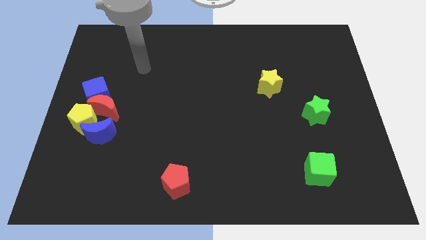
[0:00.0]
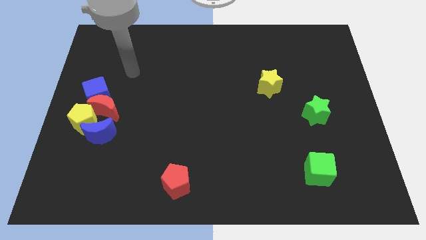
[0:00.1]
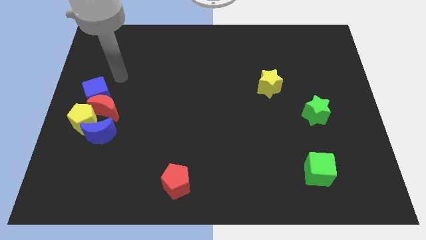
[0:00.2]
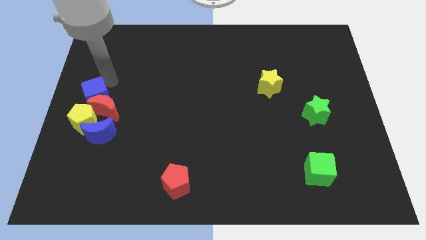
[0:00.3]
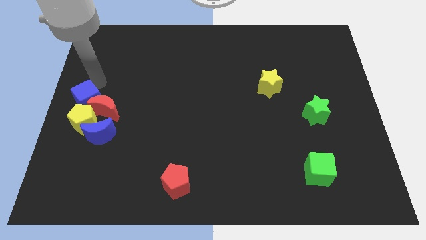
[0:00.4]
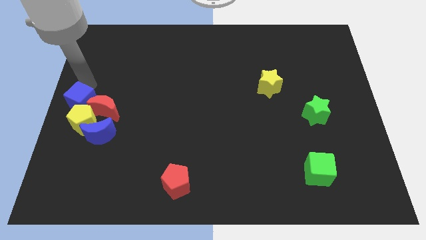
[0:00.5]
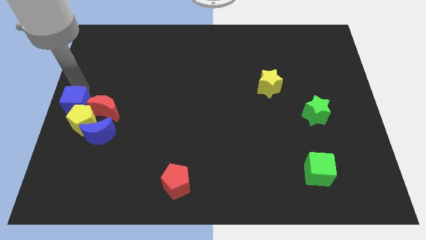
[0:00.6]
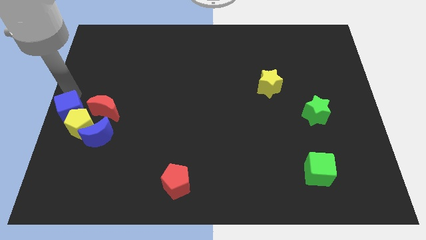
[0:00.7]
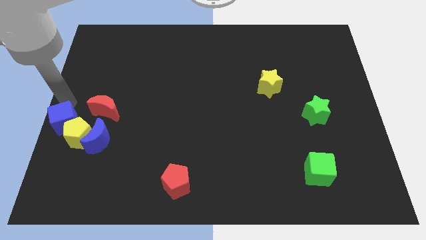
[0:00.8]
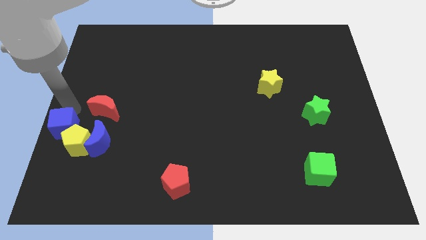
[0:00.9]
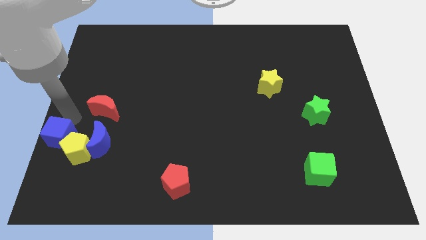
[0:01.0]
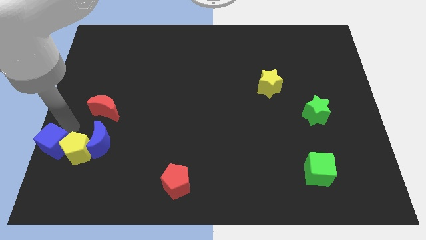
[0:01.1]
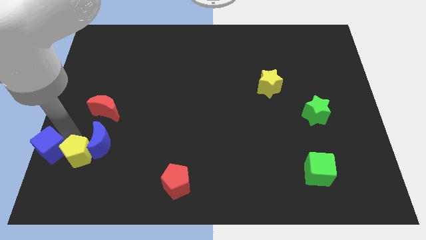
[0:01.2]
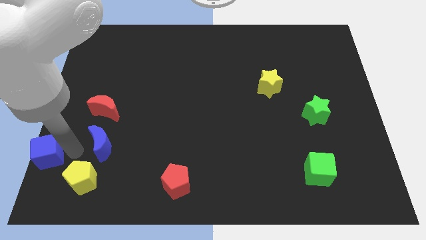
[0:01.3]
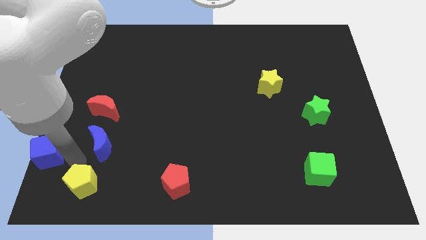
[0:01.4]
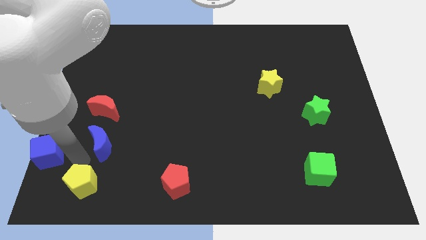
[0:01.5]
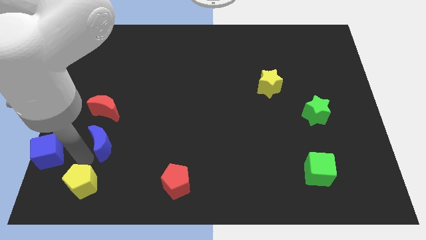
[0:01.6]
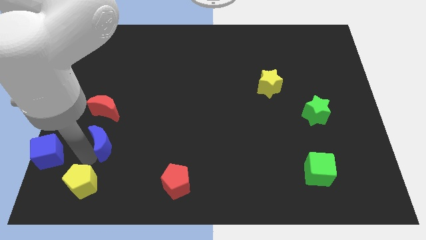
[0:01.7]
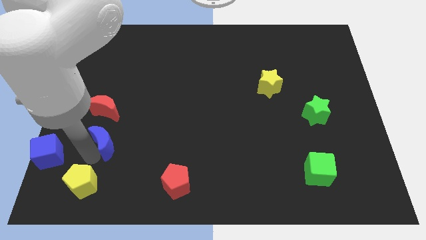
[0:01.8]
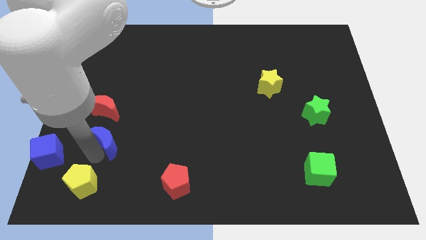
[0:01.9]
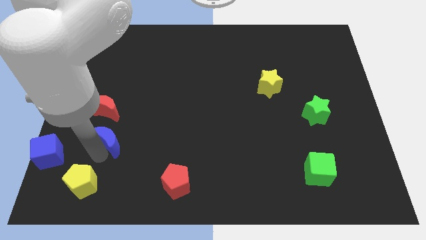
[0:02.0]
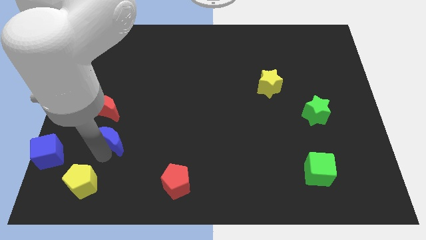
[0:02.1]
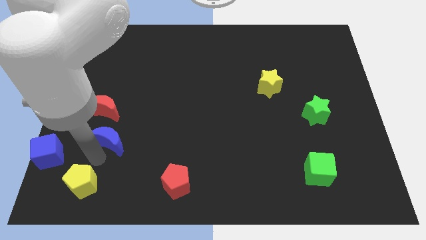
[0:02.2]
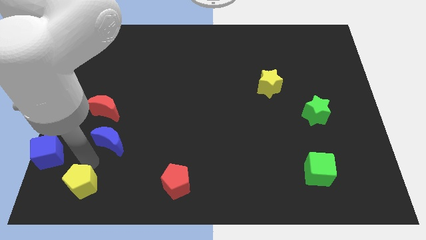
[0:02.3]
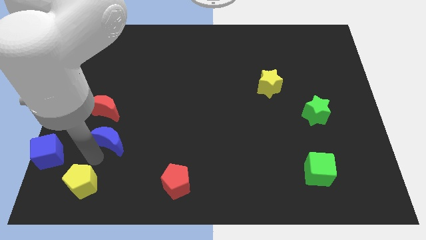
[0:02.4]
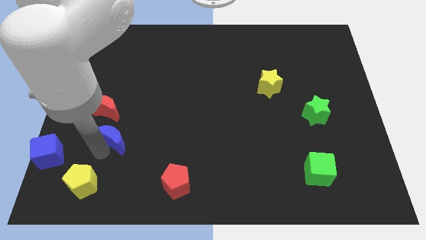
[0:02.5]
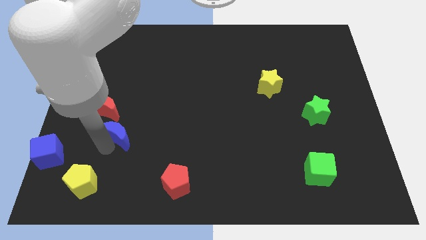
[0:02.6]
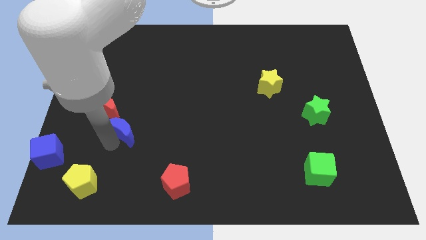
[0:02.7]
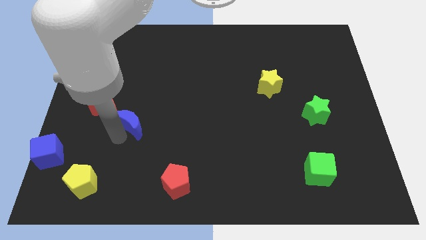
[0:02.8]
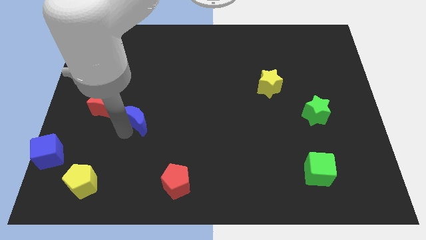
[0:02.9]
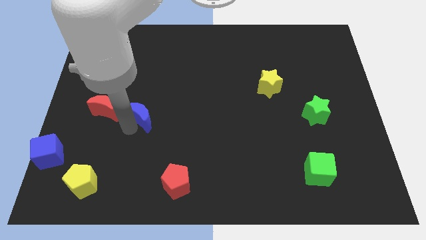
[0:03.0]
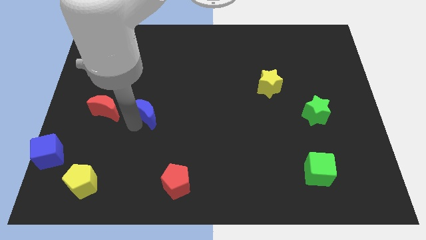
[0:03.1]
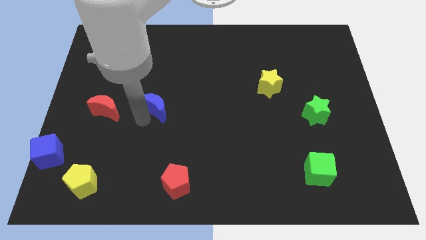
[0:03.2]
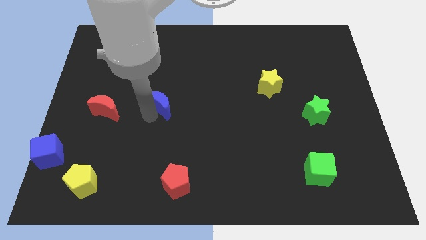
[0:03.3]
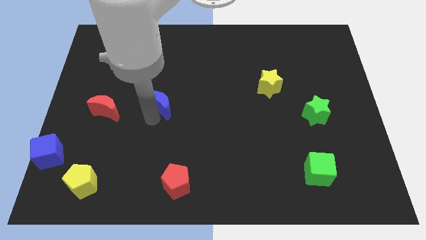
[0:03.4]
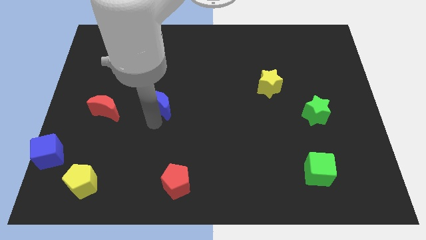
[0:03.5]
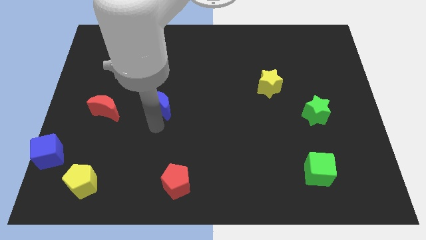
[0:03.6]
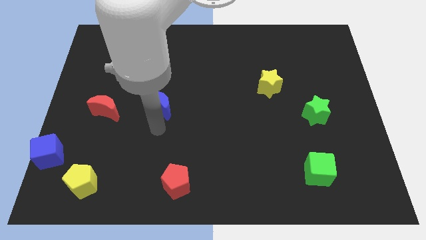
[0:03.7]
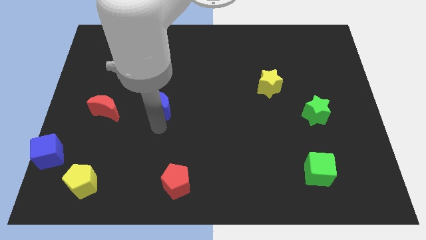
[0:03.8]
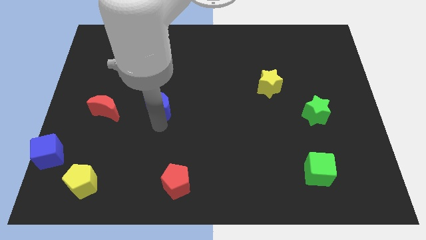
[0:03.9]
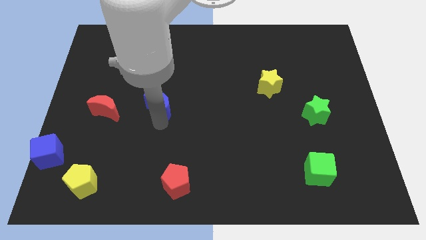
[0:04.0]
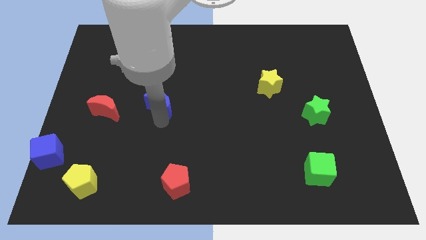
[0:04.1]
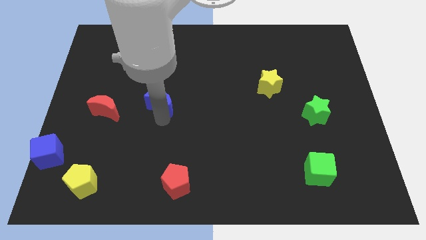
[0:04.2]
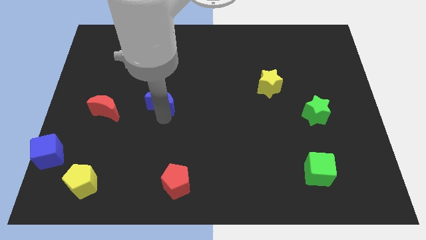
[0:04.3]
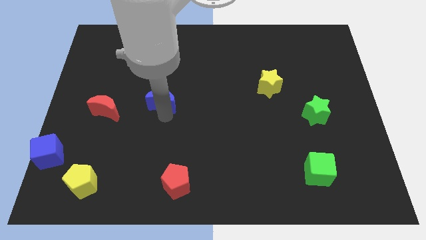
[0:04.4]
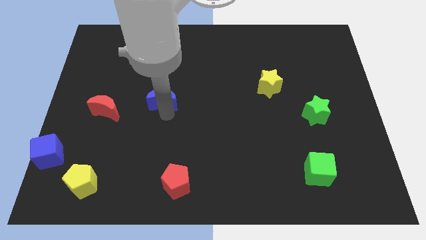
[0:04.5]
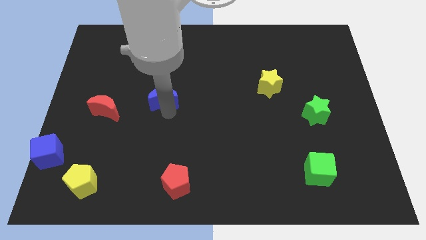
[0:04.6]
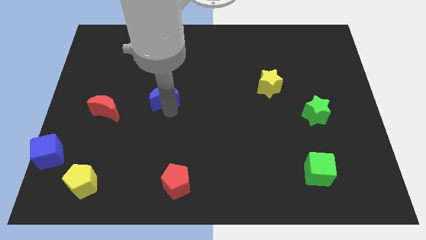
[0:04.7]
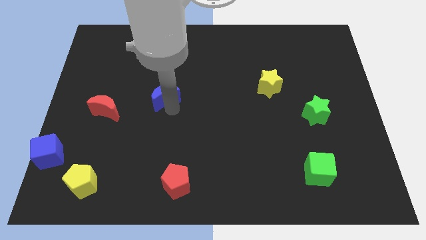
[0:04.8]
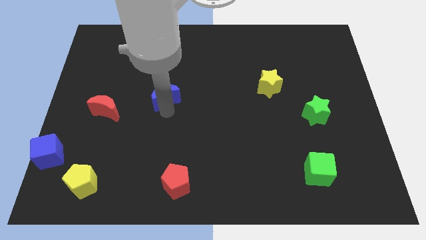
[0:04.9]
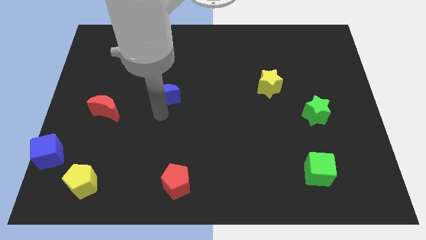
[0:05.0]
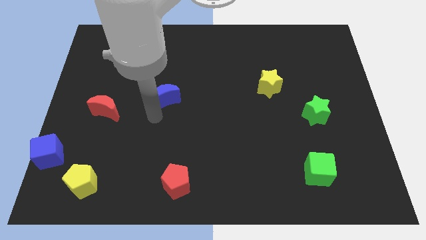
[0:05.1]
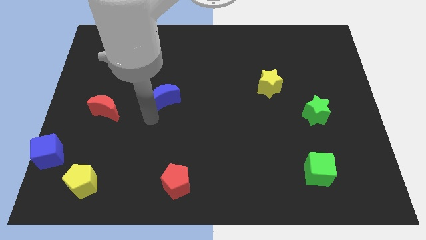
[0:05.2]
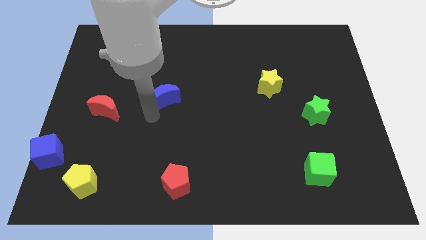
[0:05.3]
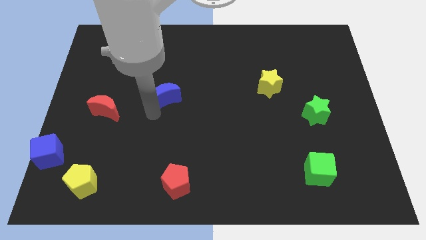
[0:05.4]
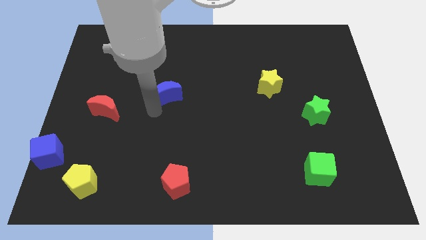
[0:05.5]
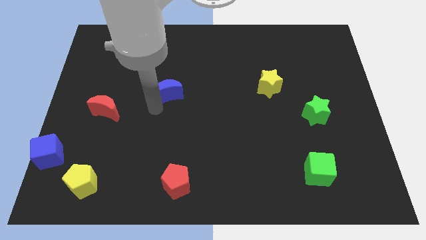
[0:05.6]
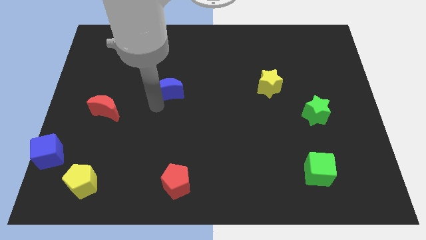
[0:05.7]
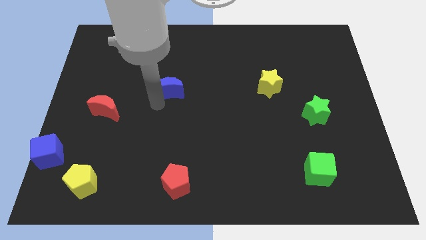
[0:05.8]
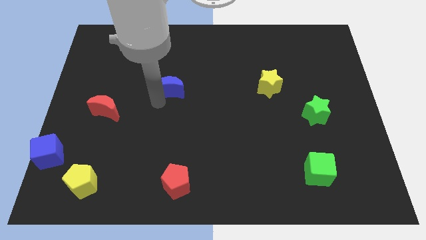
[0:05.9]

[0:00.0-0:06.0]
push the blue moon diagonally upwards and to the right

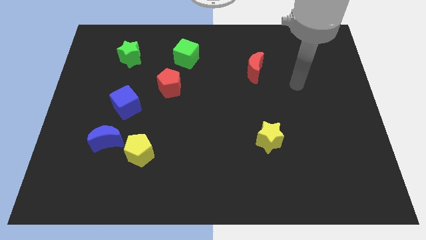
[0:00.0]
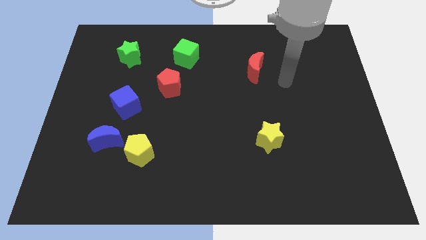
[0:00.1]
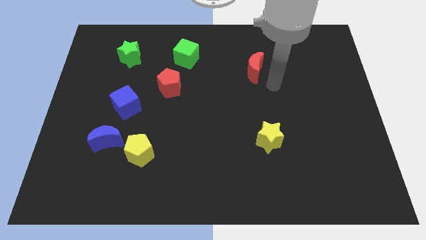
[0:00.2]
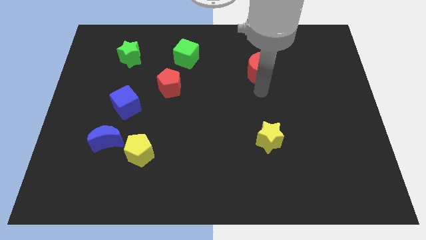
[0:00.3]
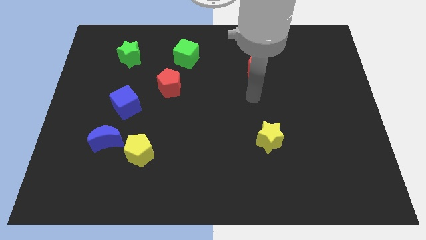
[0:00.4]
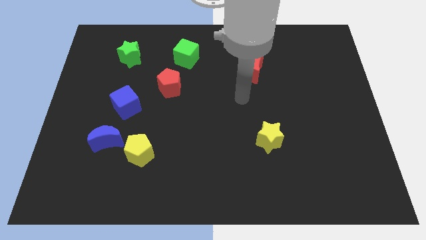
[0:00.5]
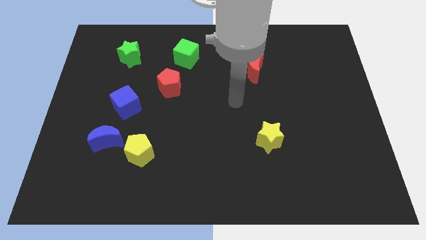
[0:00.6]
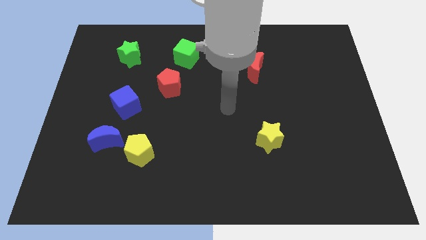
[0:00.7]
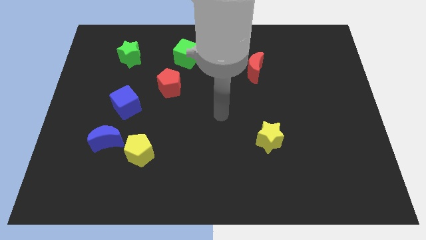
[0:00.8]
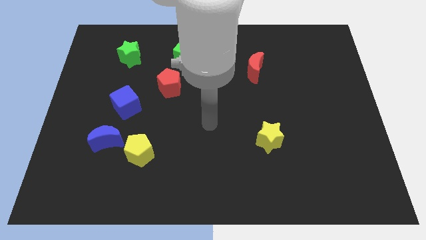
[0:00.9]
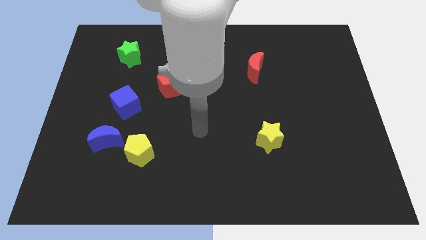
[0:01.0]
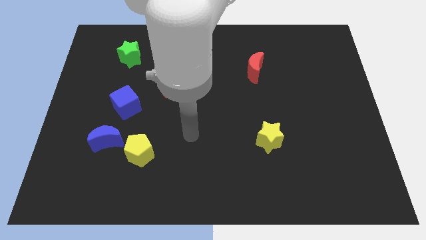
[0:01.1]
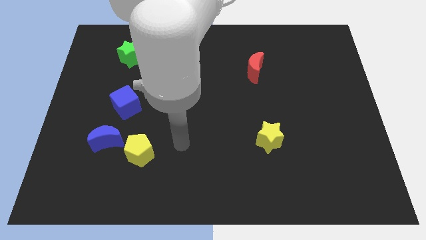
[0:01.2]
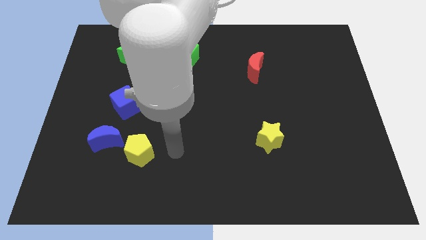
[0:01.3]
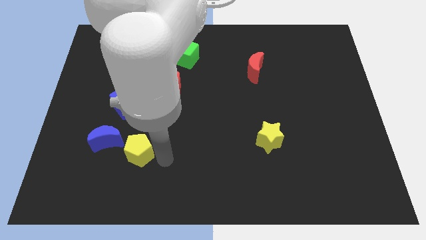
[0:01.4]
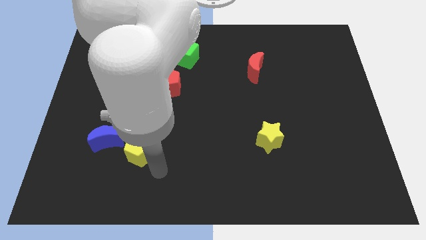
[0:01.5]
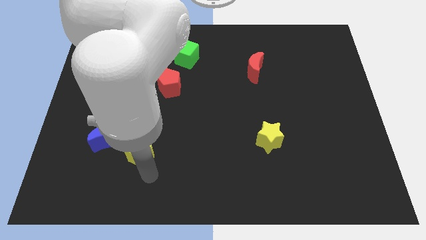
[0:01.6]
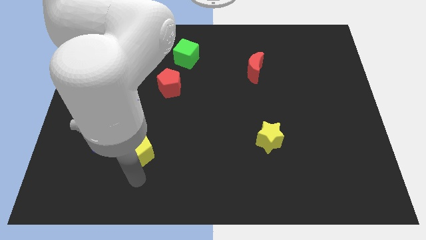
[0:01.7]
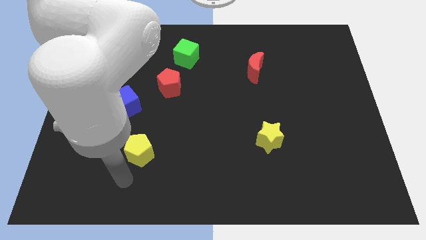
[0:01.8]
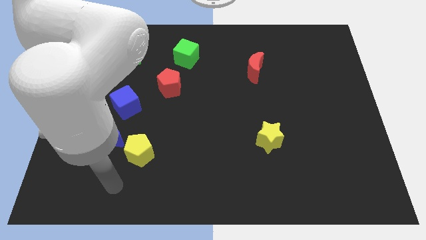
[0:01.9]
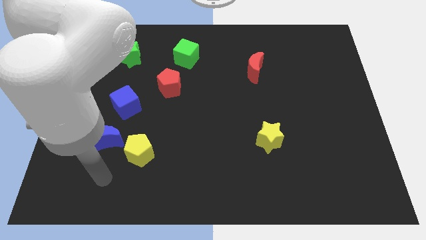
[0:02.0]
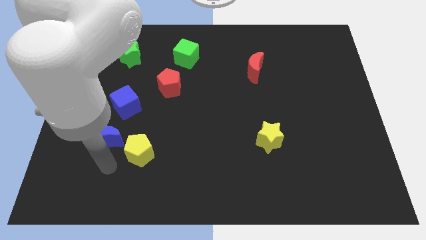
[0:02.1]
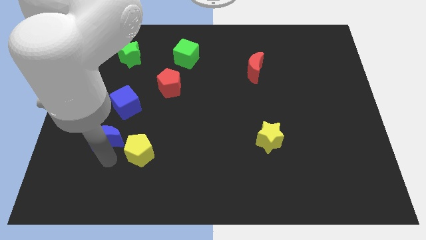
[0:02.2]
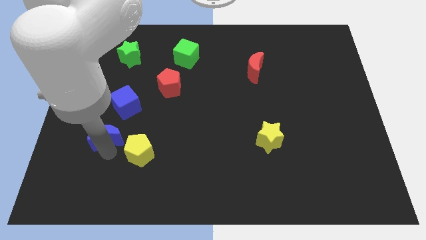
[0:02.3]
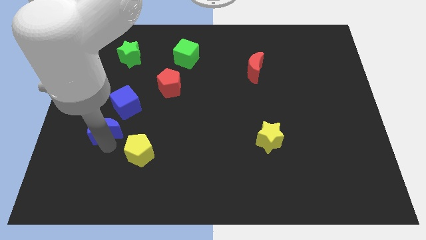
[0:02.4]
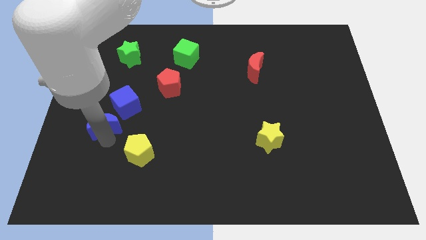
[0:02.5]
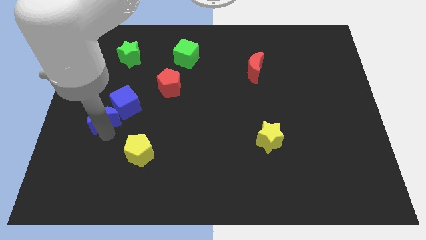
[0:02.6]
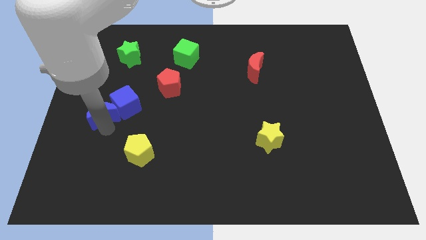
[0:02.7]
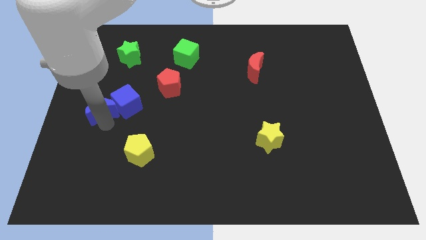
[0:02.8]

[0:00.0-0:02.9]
push the blue moon a bit upwards
